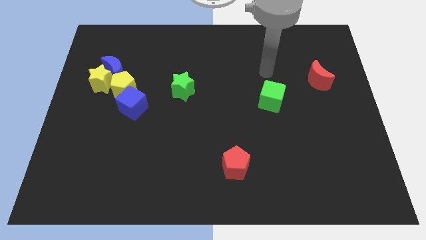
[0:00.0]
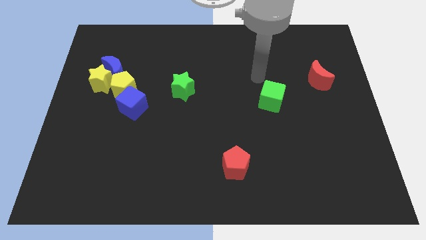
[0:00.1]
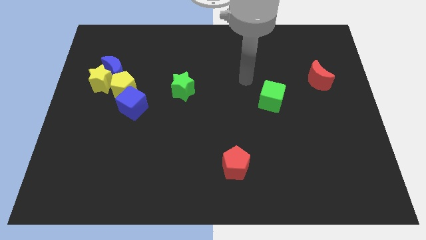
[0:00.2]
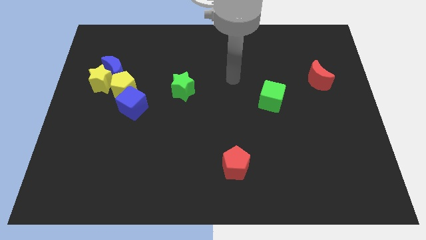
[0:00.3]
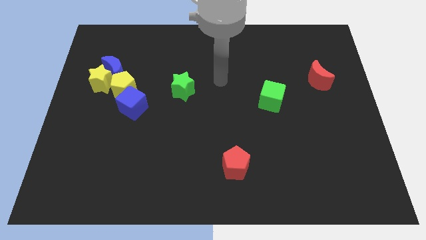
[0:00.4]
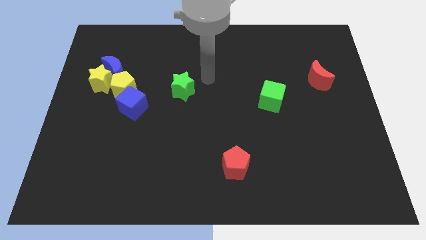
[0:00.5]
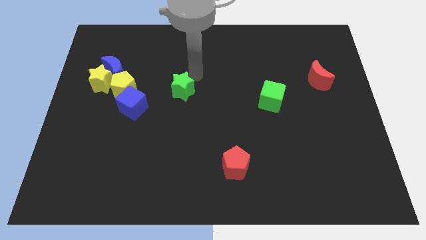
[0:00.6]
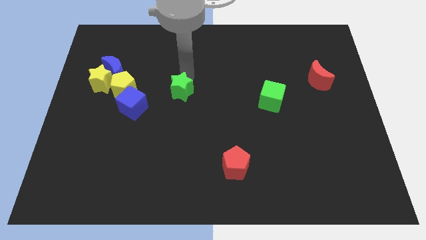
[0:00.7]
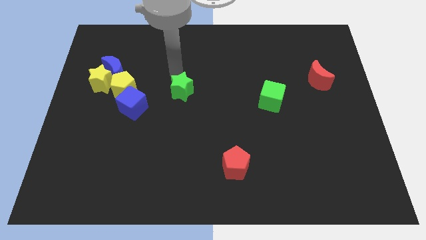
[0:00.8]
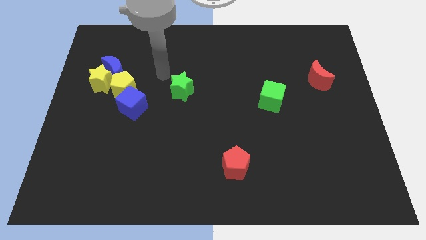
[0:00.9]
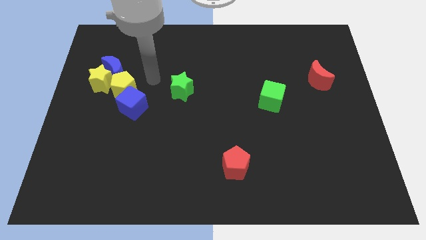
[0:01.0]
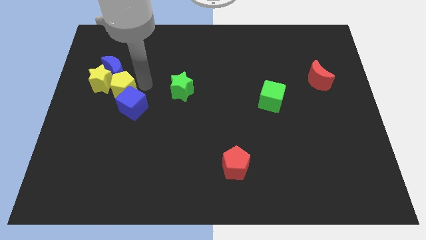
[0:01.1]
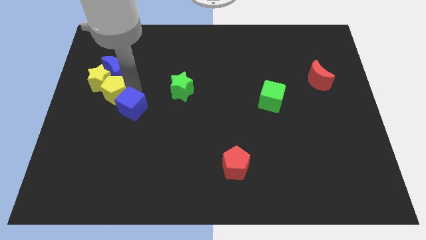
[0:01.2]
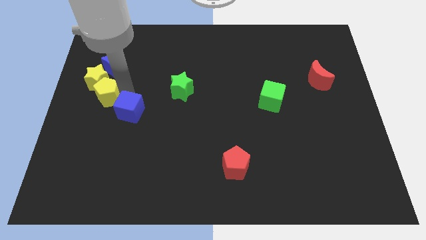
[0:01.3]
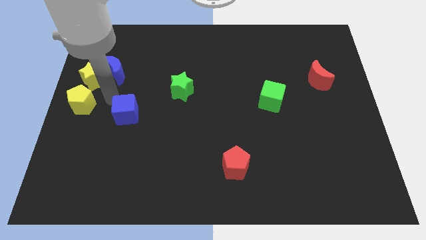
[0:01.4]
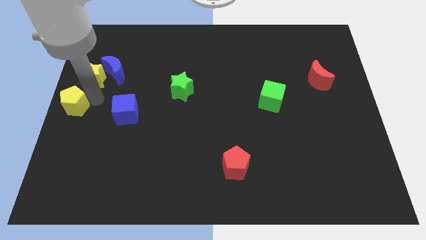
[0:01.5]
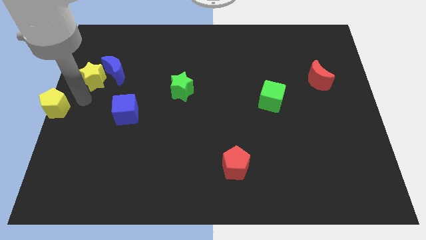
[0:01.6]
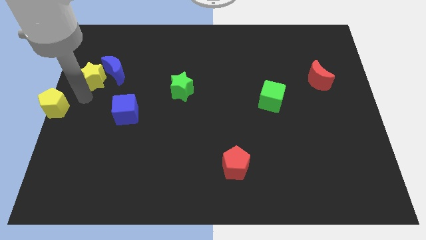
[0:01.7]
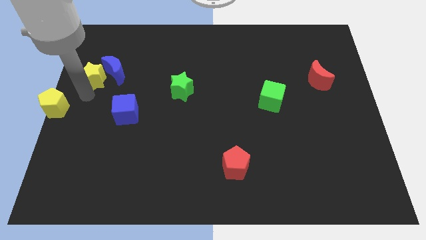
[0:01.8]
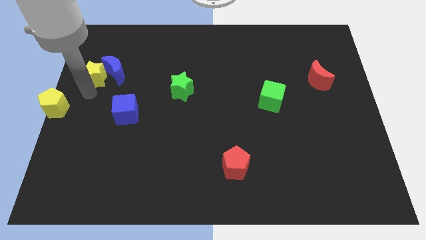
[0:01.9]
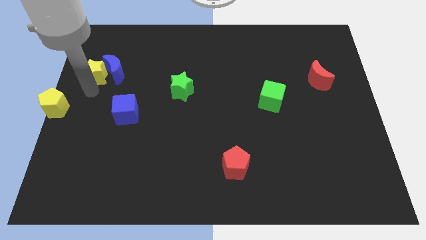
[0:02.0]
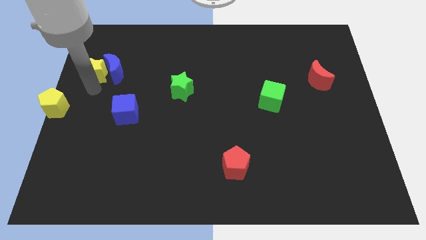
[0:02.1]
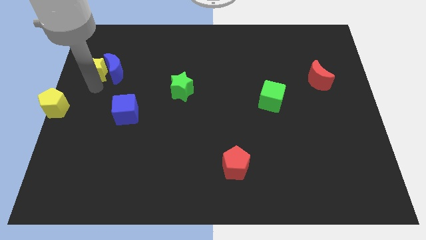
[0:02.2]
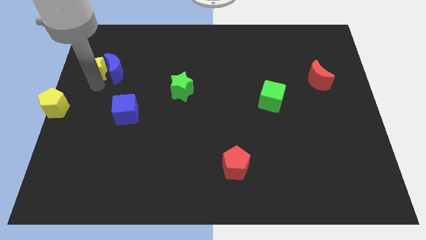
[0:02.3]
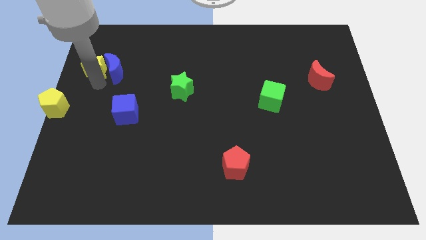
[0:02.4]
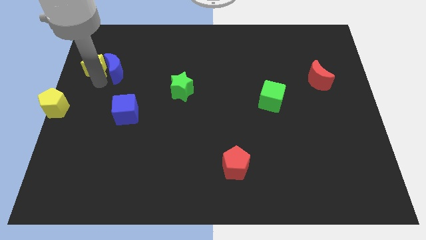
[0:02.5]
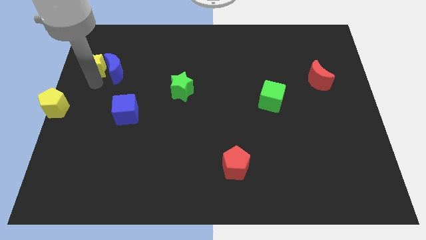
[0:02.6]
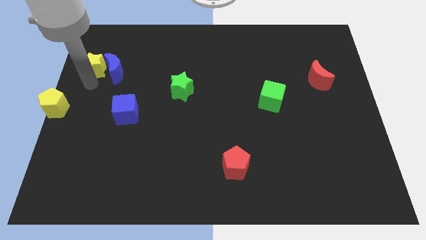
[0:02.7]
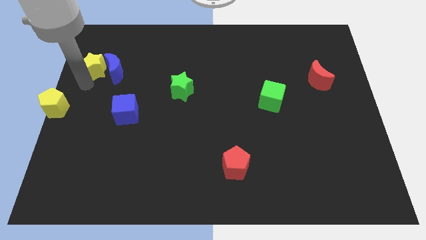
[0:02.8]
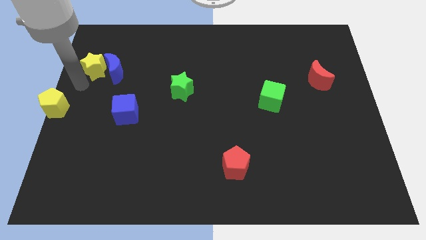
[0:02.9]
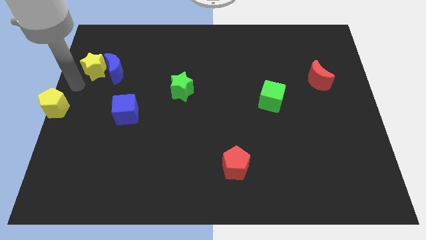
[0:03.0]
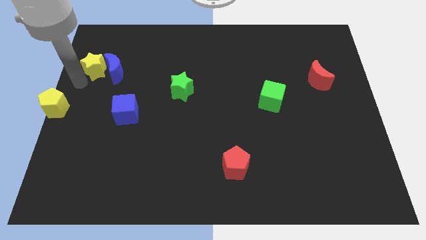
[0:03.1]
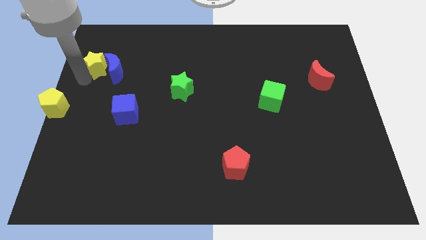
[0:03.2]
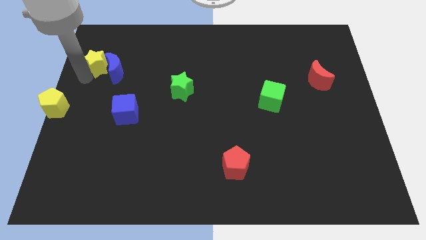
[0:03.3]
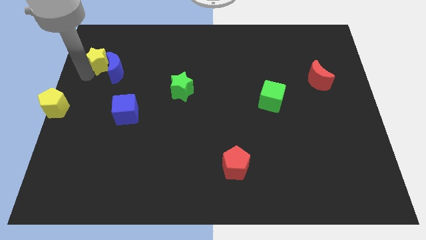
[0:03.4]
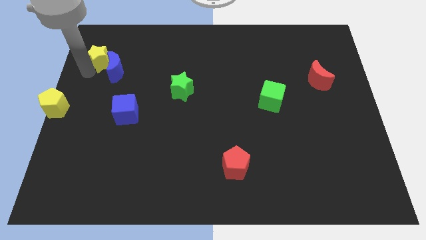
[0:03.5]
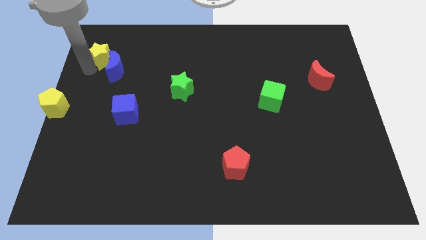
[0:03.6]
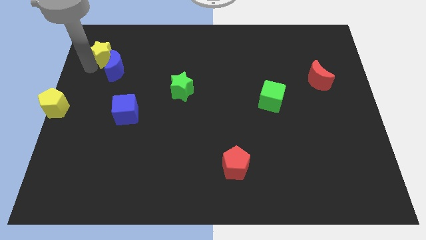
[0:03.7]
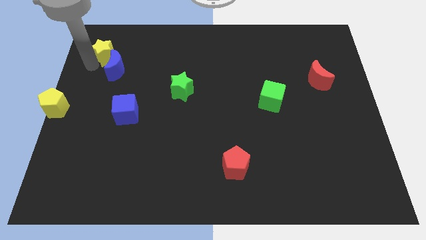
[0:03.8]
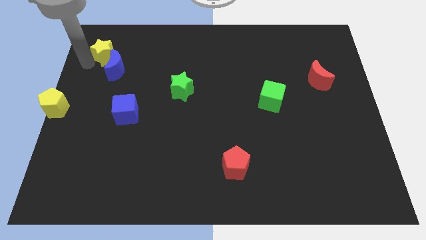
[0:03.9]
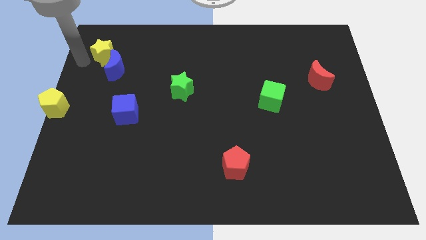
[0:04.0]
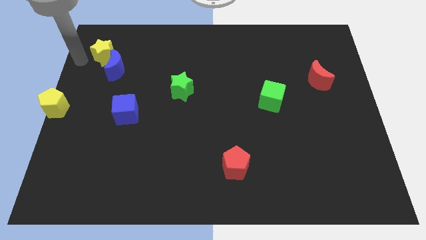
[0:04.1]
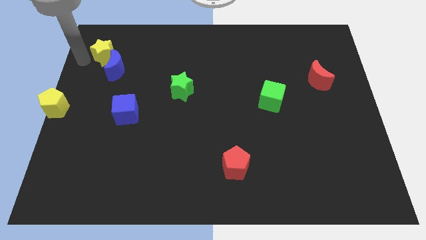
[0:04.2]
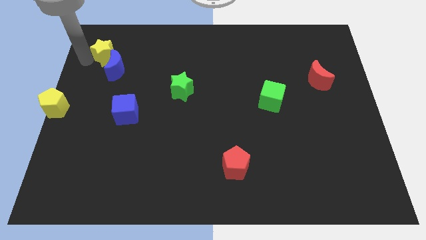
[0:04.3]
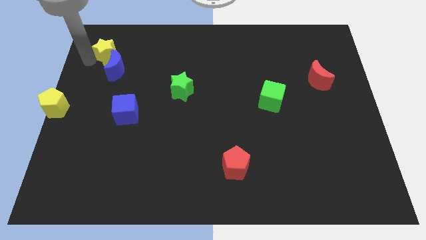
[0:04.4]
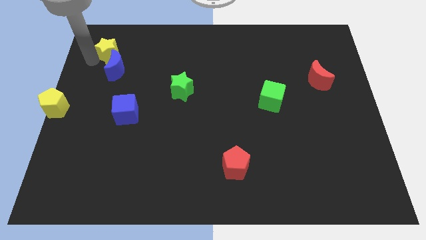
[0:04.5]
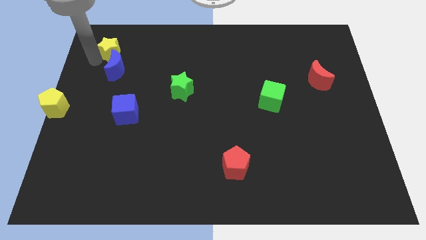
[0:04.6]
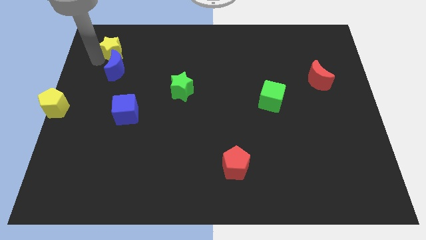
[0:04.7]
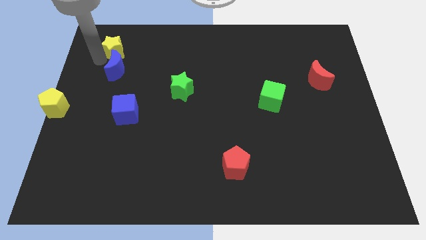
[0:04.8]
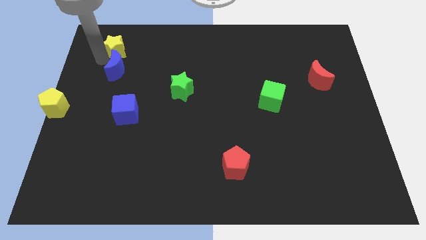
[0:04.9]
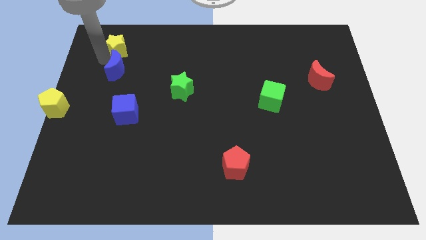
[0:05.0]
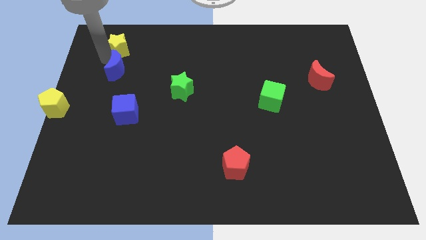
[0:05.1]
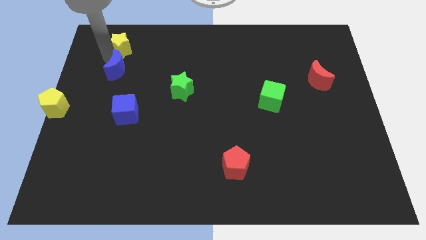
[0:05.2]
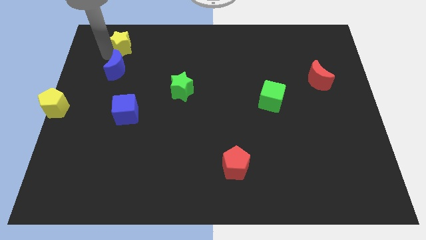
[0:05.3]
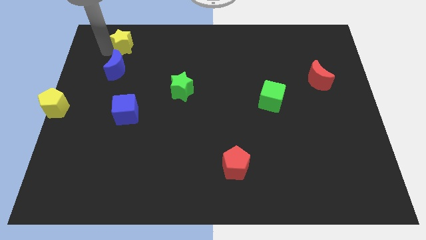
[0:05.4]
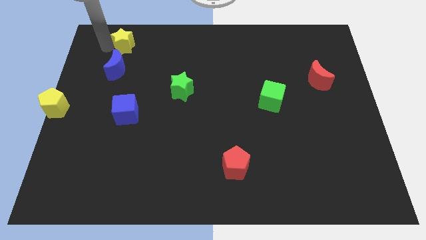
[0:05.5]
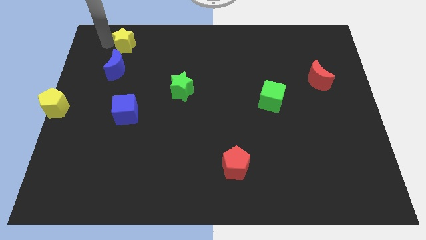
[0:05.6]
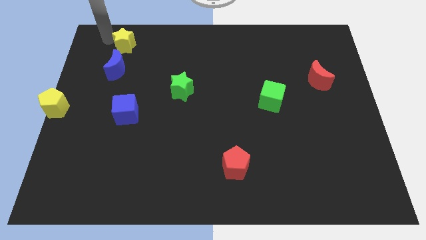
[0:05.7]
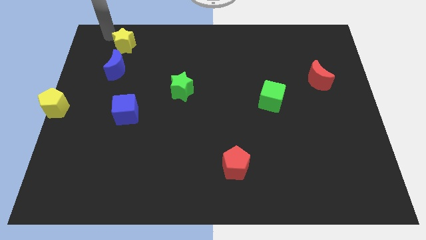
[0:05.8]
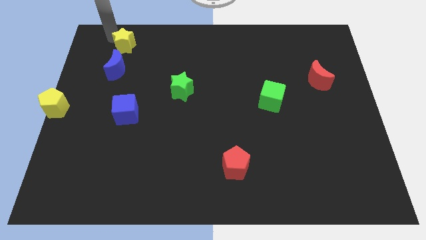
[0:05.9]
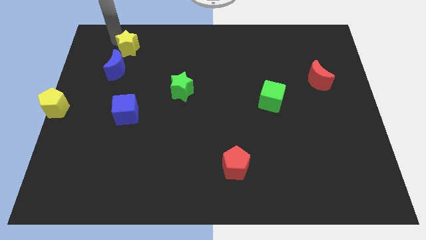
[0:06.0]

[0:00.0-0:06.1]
slide the yellow star to the top right side of the blue moon
